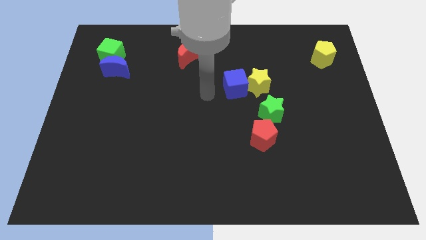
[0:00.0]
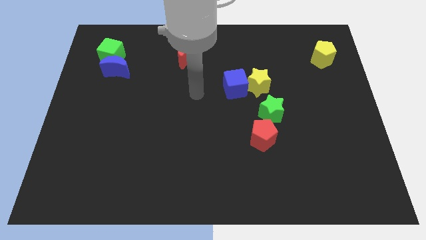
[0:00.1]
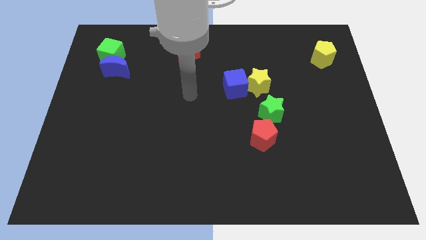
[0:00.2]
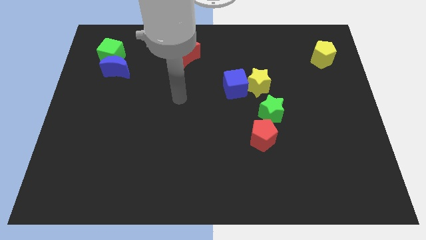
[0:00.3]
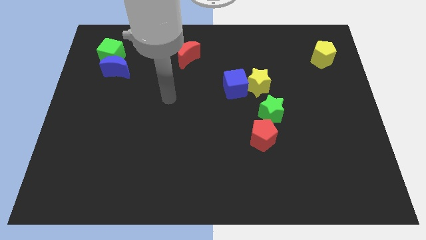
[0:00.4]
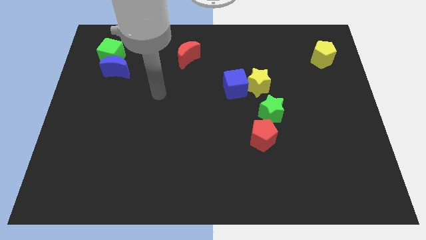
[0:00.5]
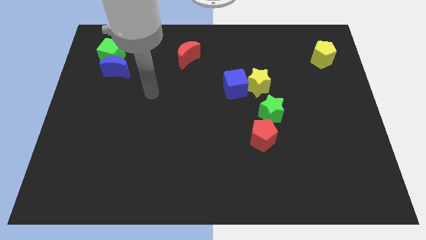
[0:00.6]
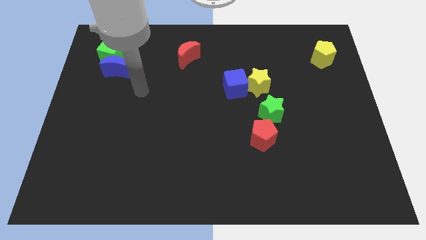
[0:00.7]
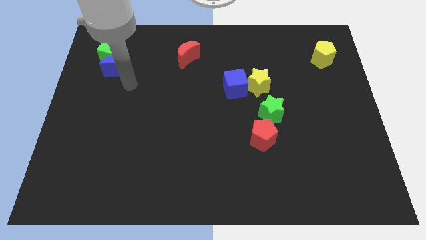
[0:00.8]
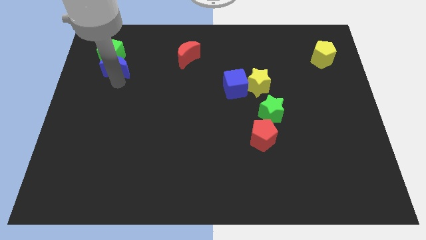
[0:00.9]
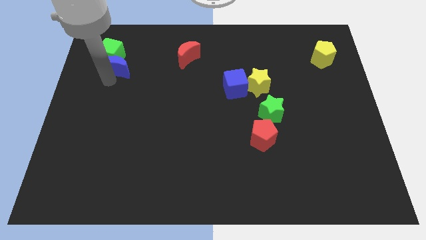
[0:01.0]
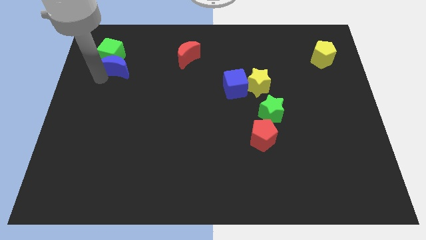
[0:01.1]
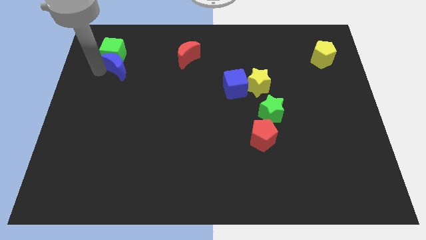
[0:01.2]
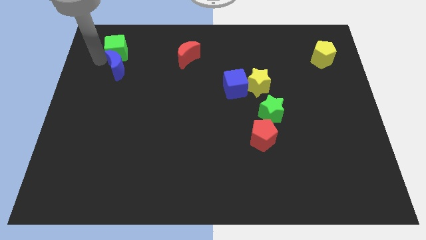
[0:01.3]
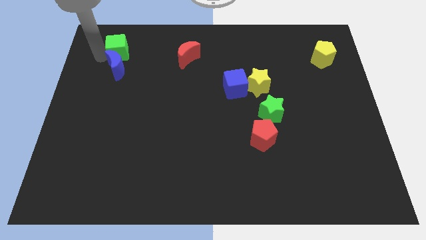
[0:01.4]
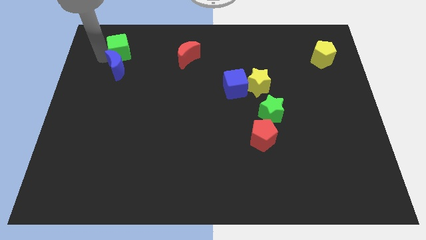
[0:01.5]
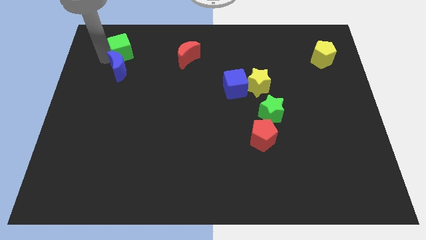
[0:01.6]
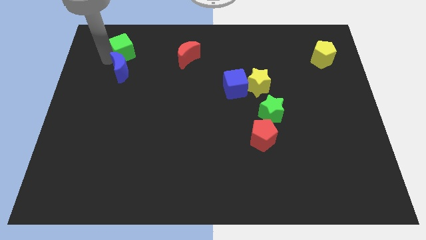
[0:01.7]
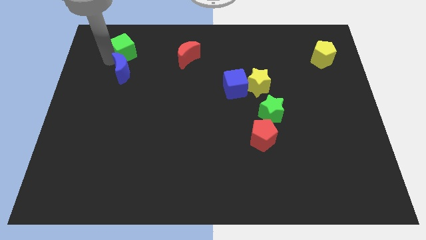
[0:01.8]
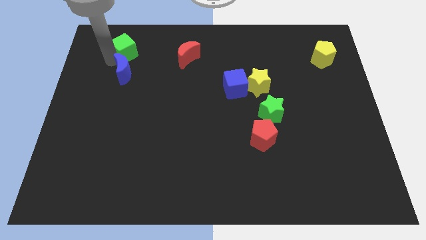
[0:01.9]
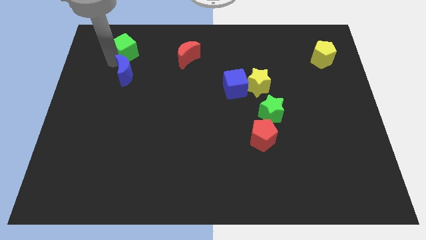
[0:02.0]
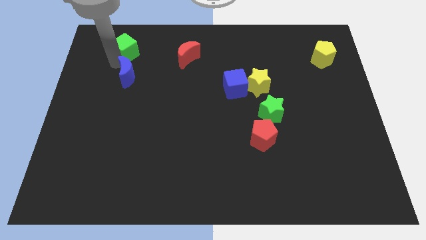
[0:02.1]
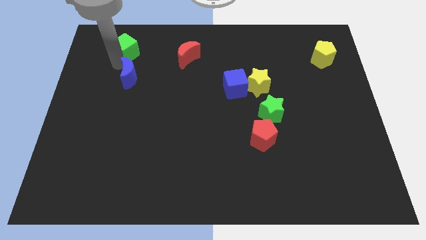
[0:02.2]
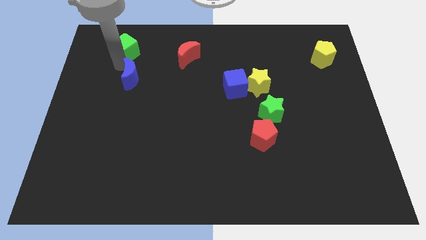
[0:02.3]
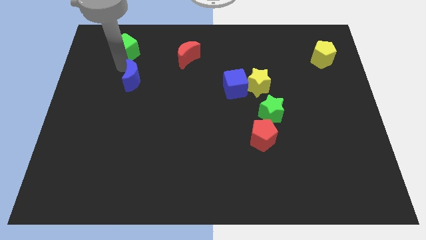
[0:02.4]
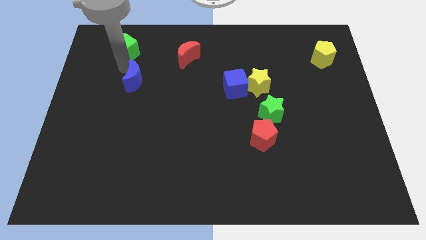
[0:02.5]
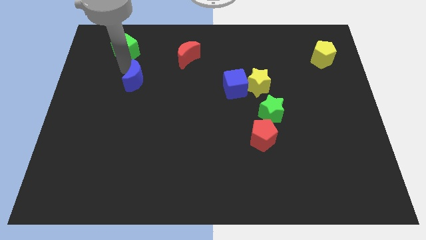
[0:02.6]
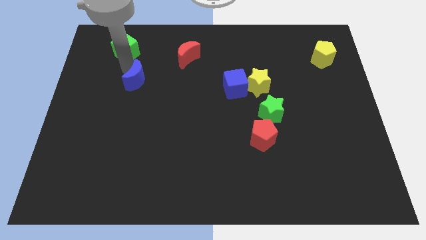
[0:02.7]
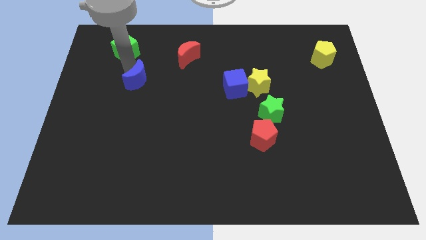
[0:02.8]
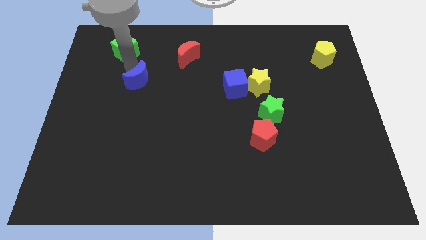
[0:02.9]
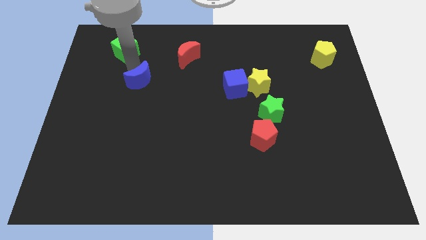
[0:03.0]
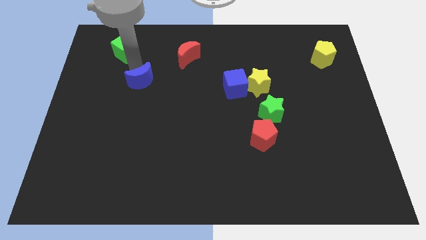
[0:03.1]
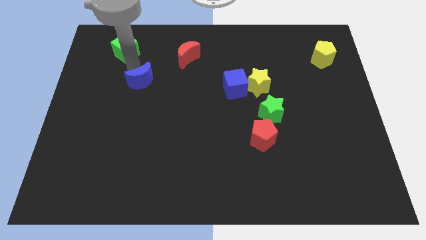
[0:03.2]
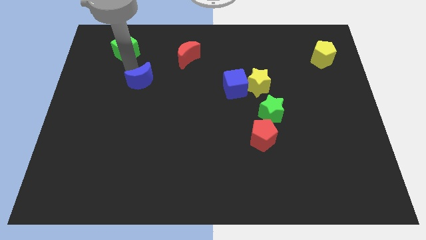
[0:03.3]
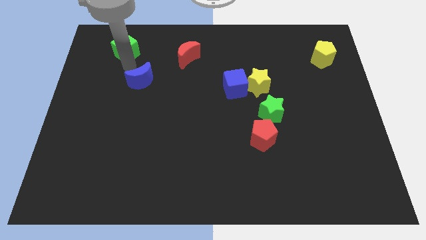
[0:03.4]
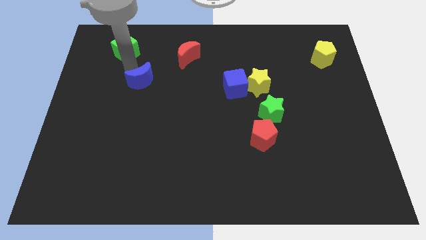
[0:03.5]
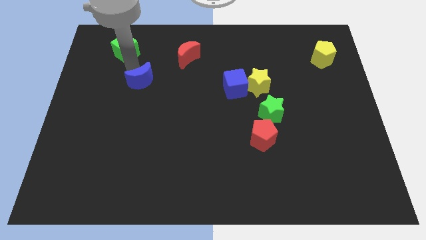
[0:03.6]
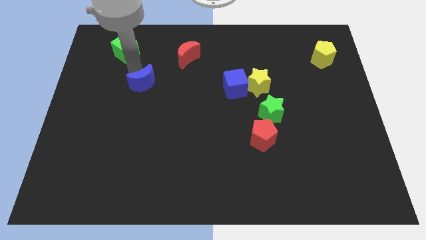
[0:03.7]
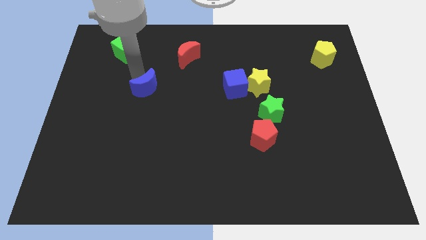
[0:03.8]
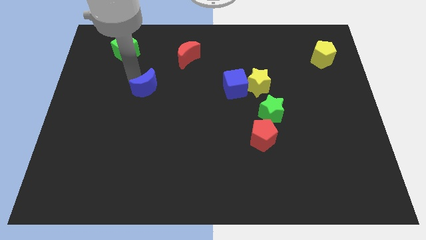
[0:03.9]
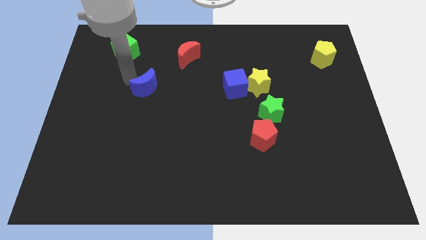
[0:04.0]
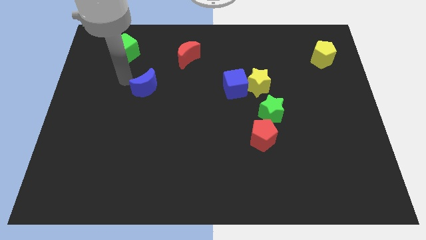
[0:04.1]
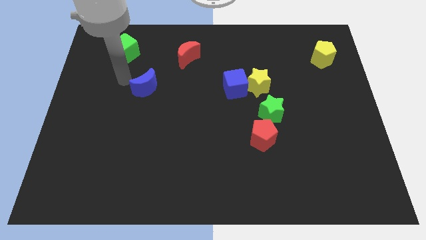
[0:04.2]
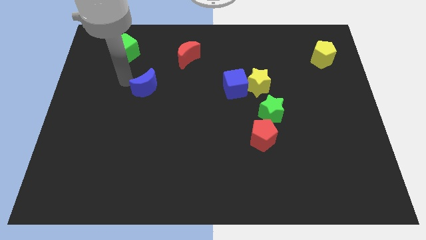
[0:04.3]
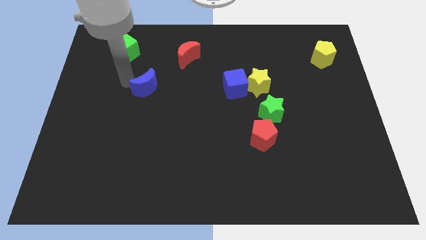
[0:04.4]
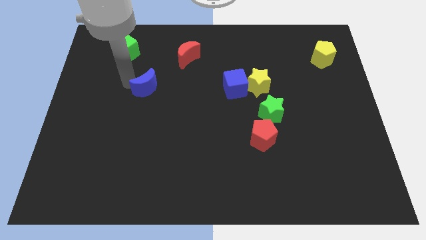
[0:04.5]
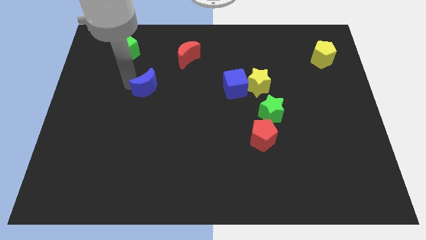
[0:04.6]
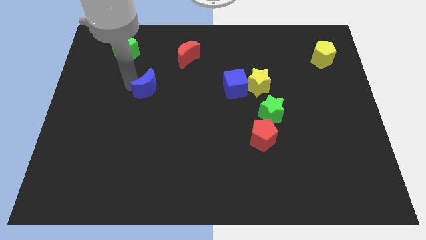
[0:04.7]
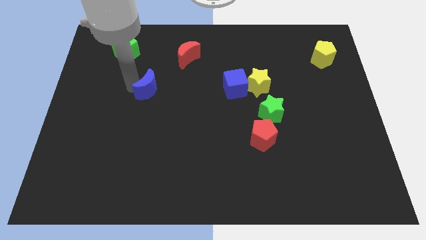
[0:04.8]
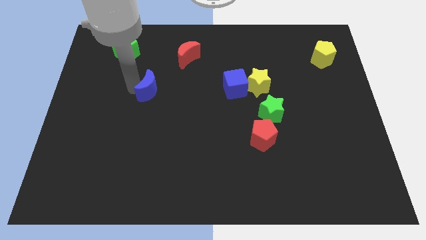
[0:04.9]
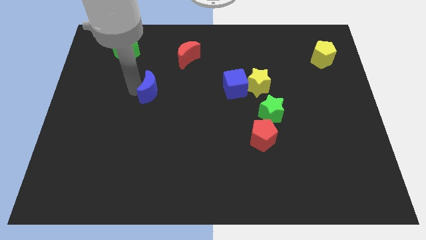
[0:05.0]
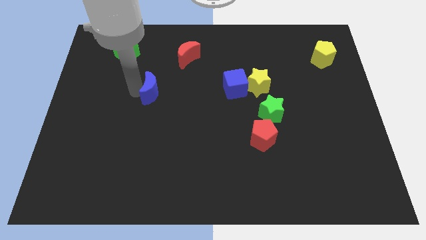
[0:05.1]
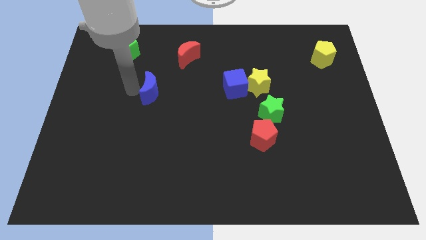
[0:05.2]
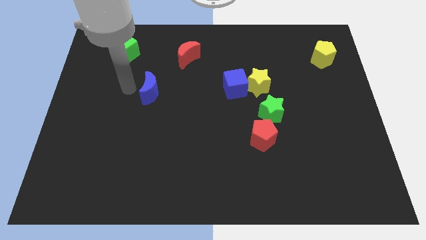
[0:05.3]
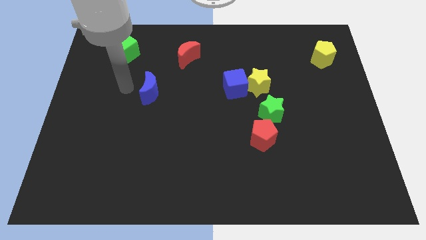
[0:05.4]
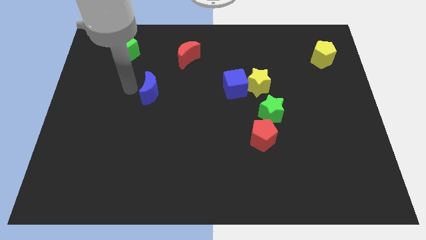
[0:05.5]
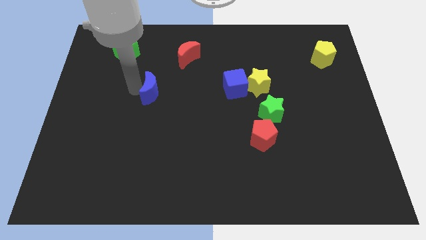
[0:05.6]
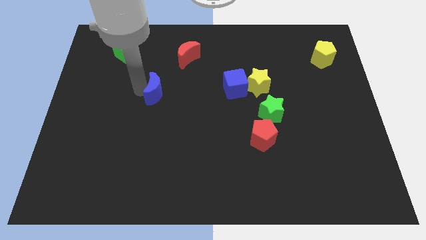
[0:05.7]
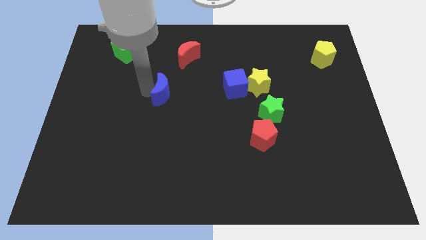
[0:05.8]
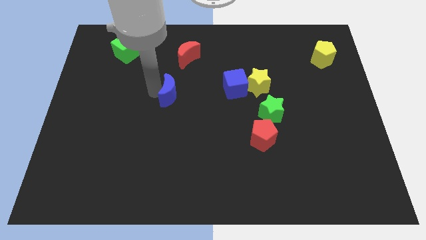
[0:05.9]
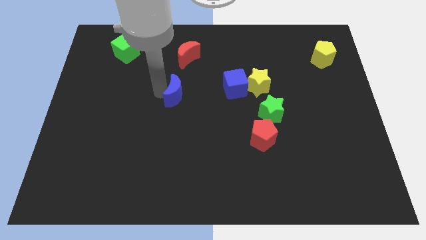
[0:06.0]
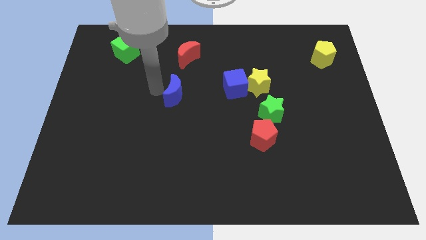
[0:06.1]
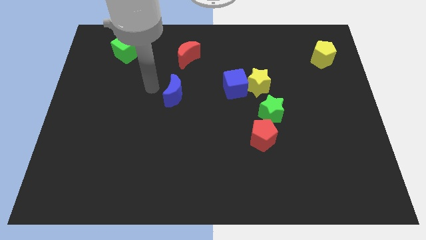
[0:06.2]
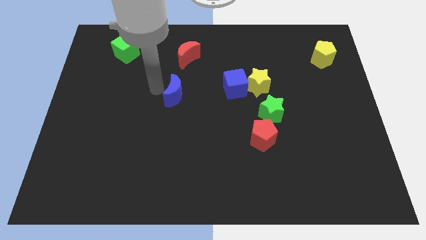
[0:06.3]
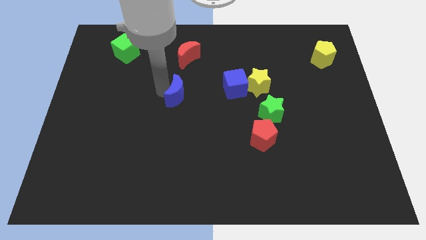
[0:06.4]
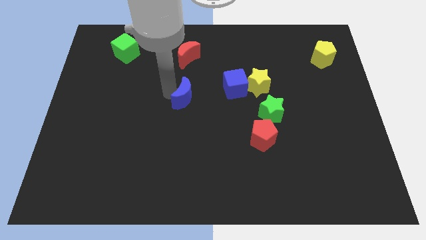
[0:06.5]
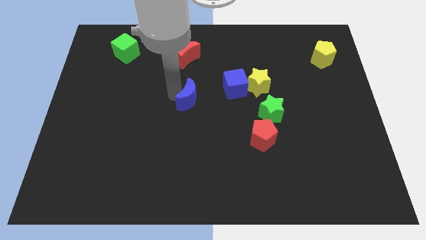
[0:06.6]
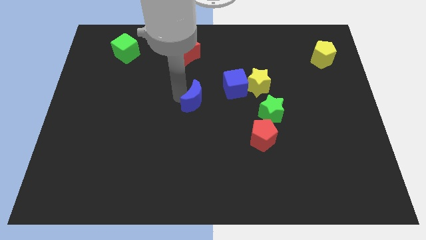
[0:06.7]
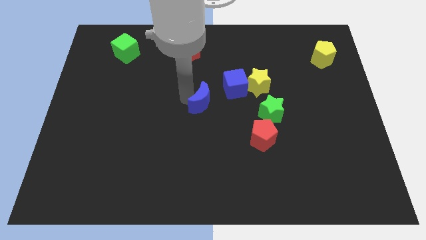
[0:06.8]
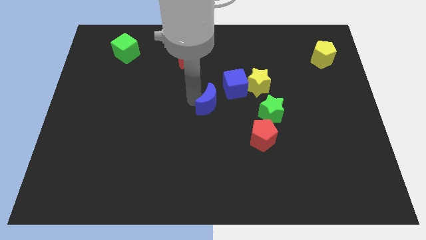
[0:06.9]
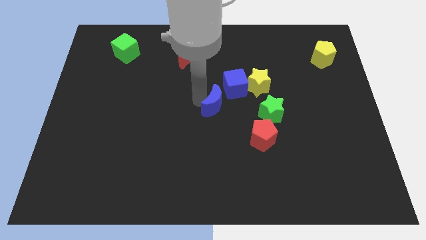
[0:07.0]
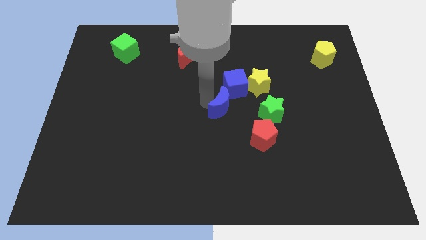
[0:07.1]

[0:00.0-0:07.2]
slide the blue moon diagonally up and to the left of the red pentagon
